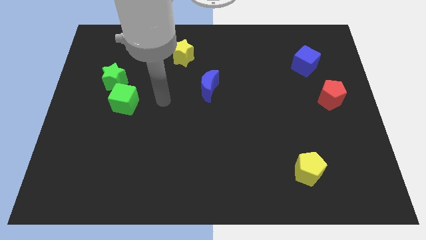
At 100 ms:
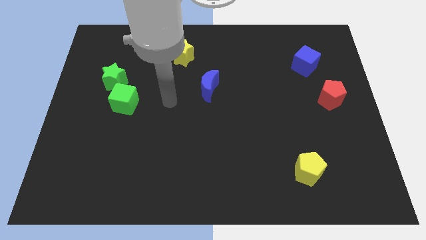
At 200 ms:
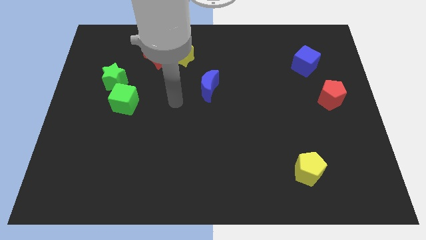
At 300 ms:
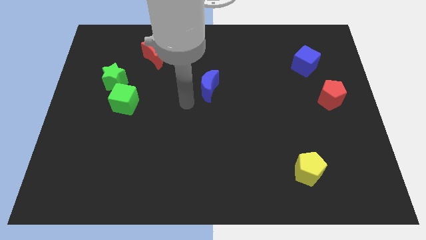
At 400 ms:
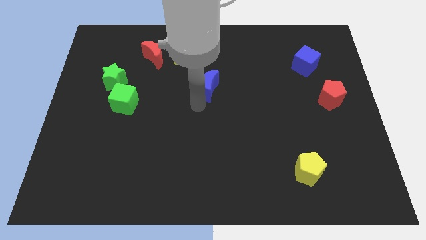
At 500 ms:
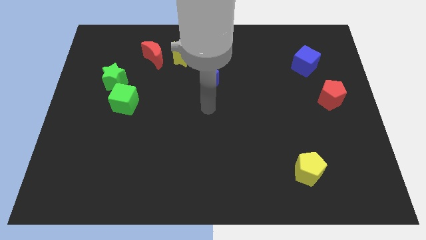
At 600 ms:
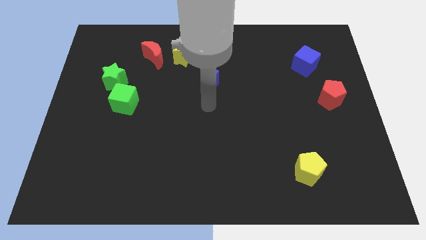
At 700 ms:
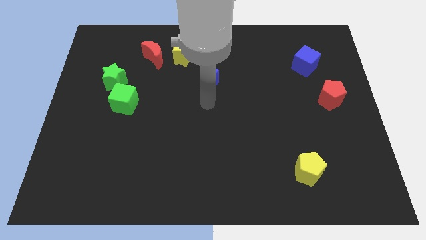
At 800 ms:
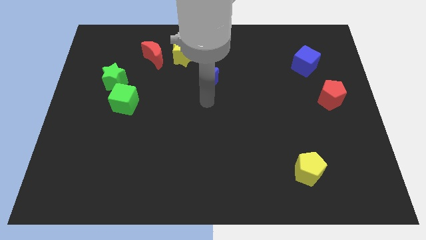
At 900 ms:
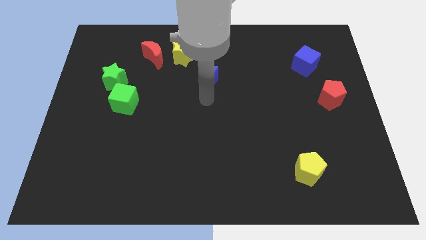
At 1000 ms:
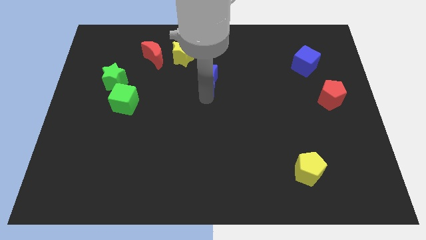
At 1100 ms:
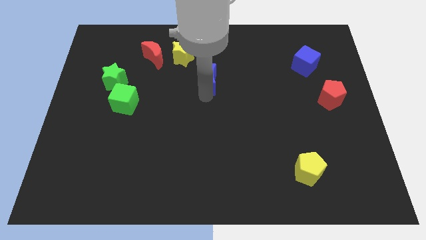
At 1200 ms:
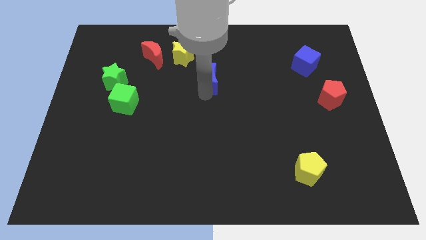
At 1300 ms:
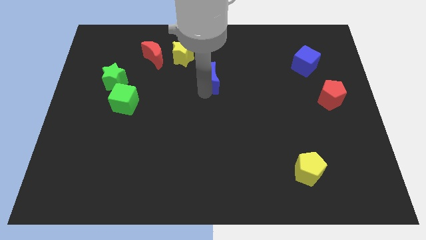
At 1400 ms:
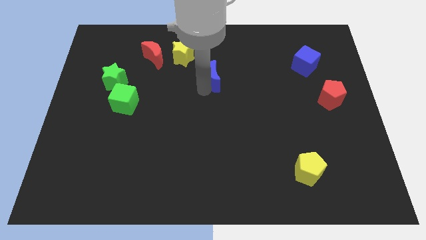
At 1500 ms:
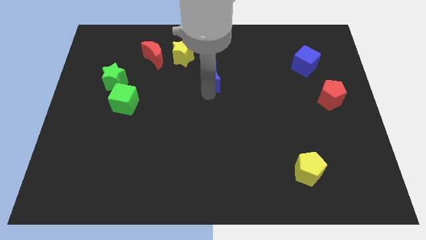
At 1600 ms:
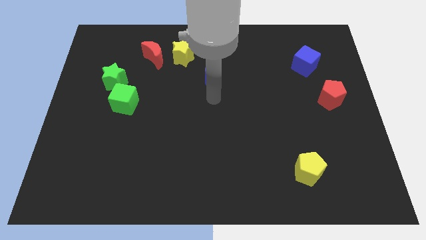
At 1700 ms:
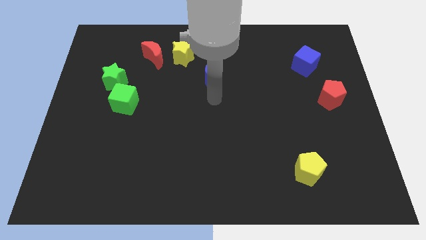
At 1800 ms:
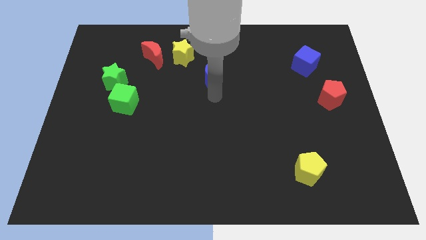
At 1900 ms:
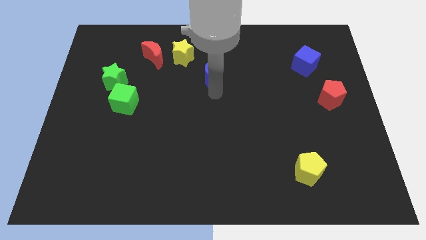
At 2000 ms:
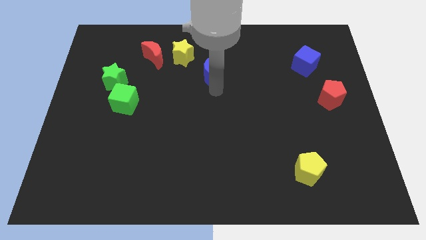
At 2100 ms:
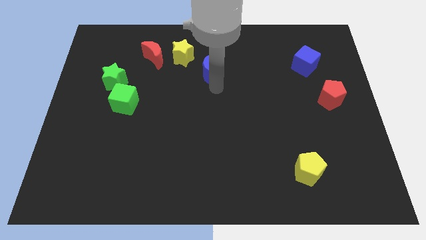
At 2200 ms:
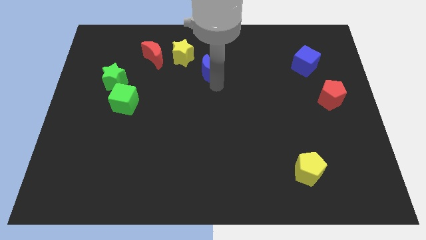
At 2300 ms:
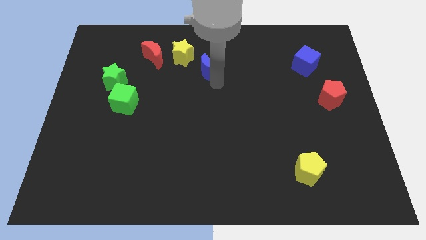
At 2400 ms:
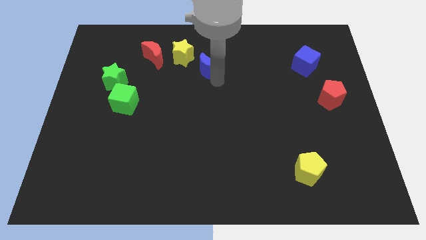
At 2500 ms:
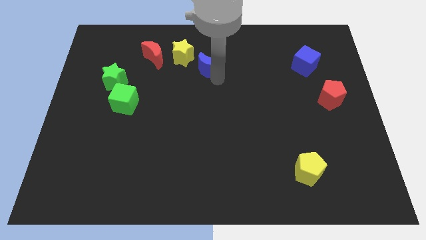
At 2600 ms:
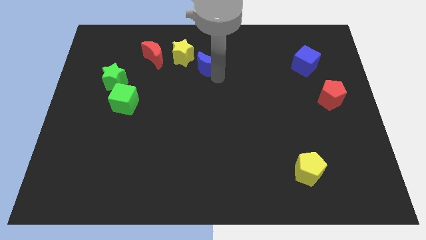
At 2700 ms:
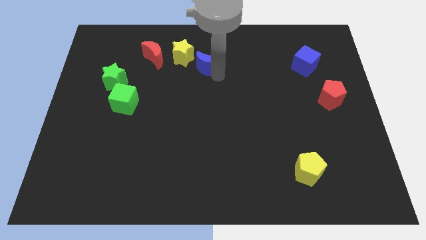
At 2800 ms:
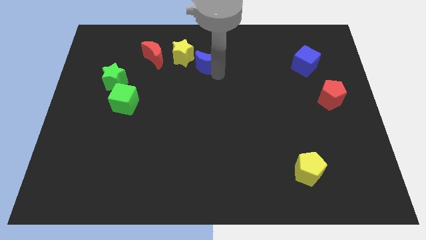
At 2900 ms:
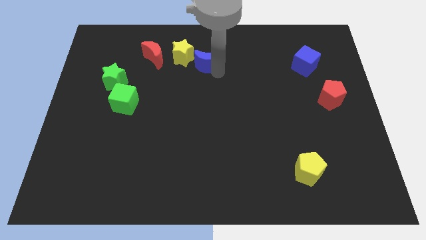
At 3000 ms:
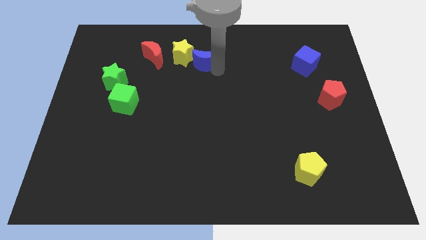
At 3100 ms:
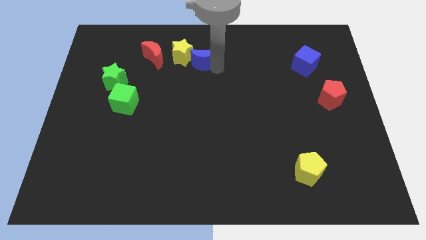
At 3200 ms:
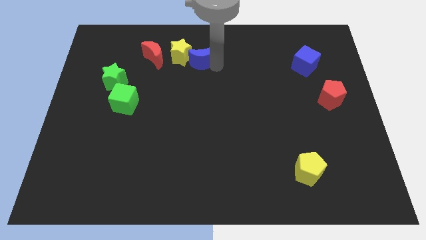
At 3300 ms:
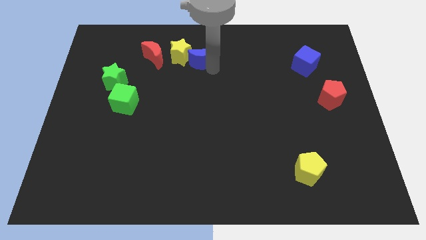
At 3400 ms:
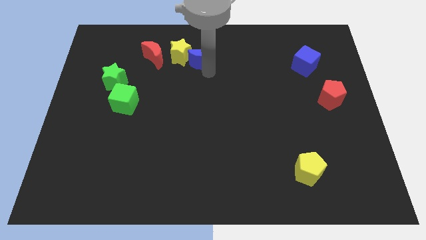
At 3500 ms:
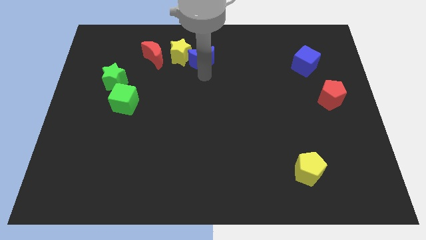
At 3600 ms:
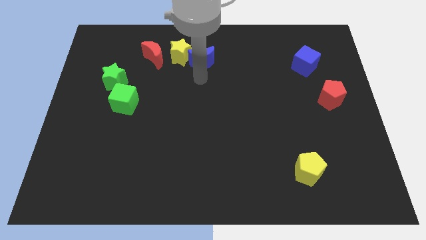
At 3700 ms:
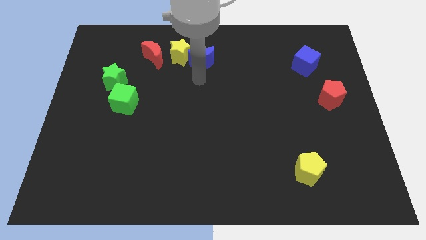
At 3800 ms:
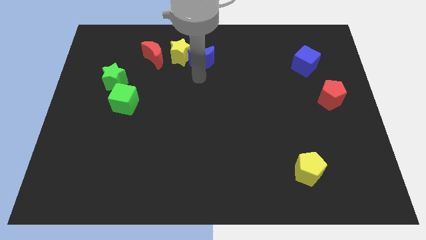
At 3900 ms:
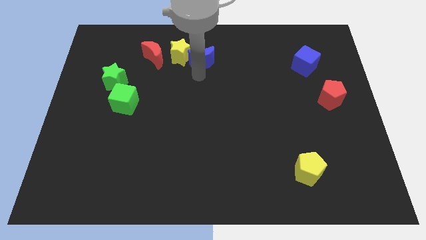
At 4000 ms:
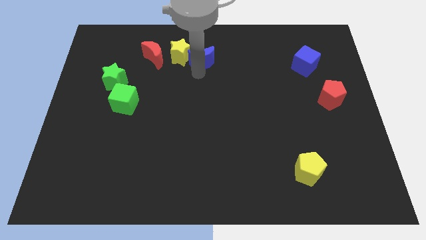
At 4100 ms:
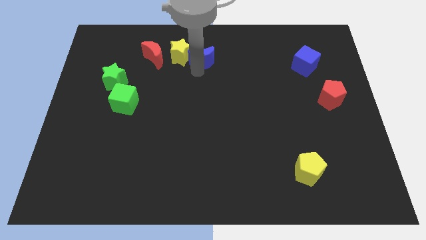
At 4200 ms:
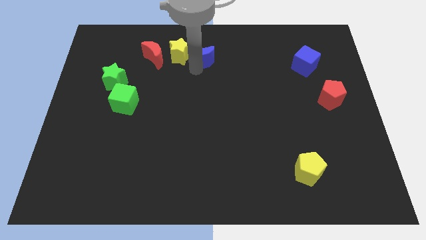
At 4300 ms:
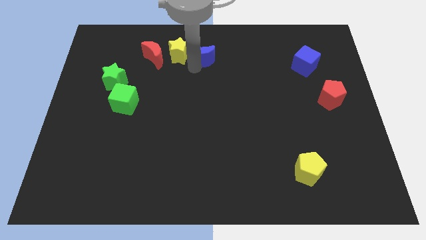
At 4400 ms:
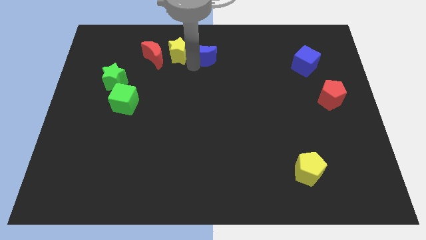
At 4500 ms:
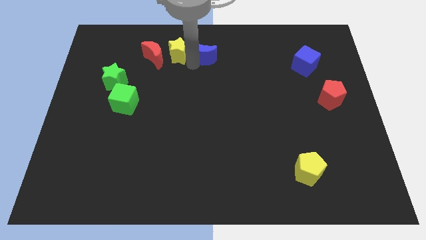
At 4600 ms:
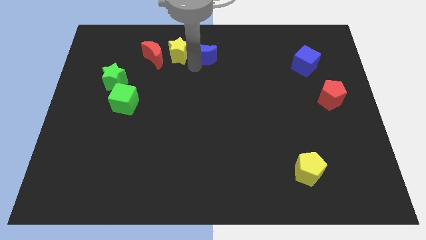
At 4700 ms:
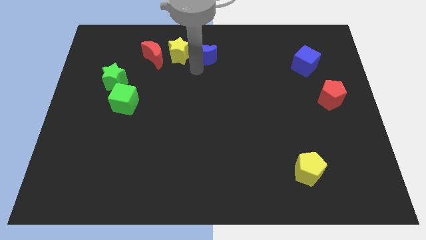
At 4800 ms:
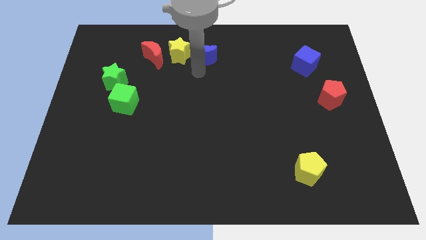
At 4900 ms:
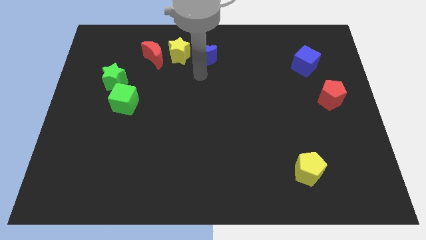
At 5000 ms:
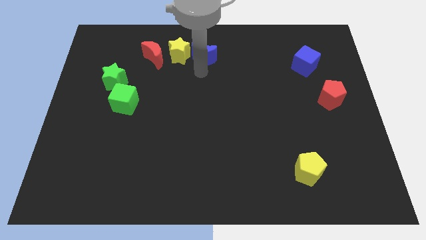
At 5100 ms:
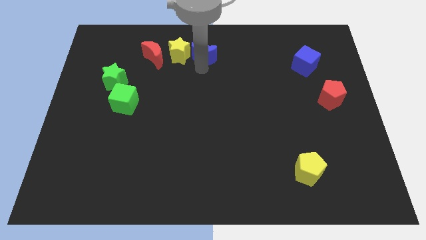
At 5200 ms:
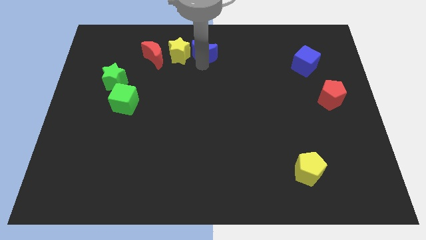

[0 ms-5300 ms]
move the blue moon to the top

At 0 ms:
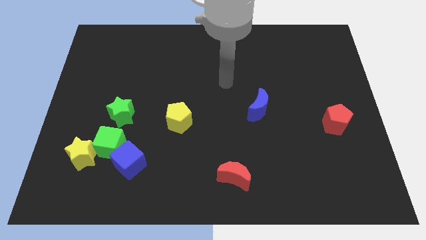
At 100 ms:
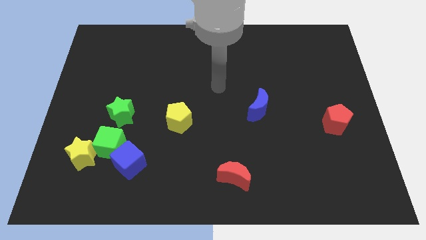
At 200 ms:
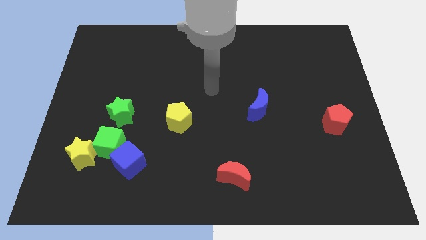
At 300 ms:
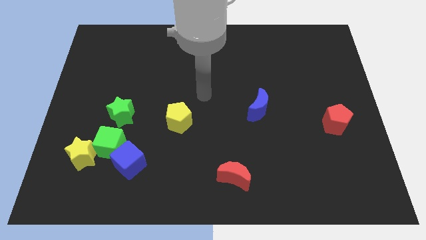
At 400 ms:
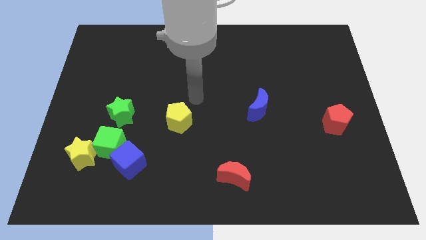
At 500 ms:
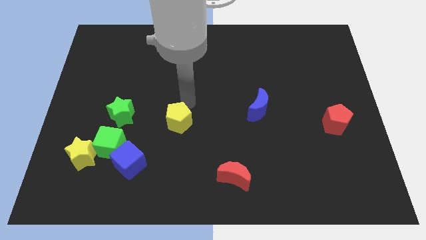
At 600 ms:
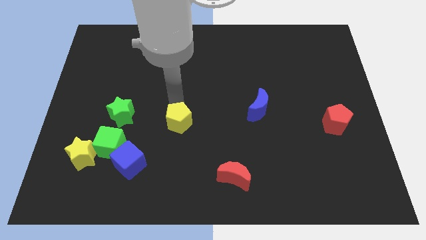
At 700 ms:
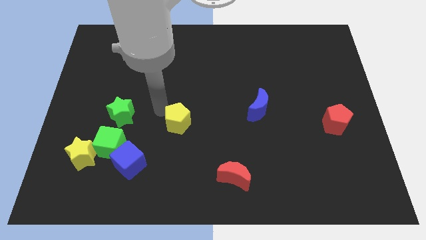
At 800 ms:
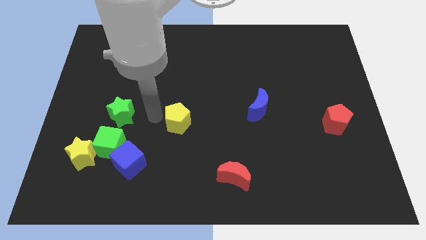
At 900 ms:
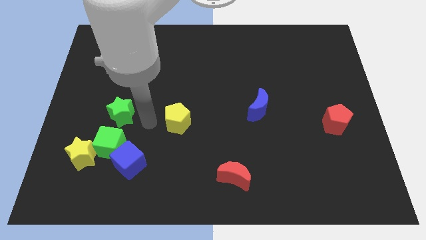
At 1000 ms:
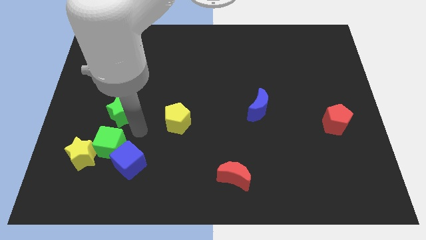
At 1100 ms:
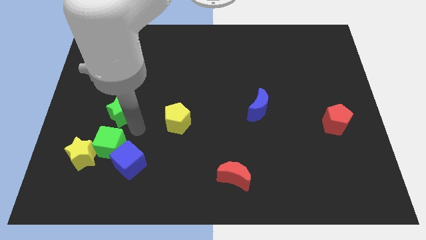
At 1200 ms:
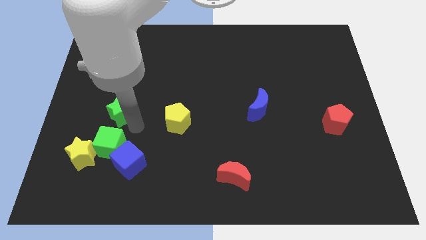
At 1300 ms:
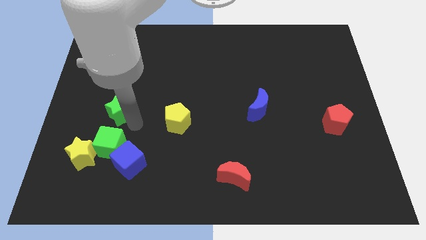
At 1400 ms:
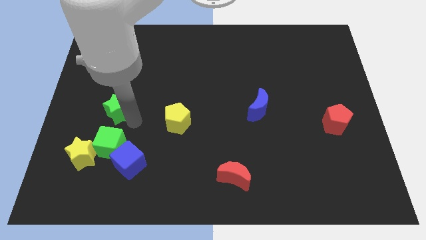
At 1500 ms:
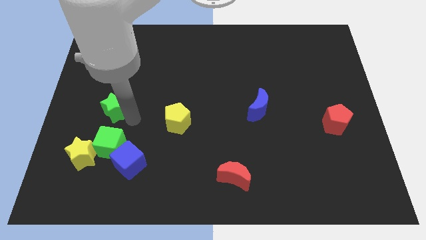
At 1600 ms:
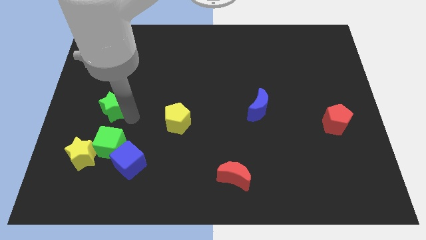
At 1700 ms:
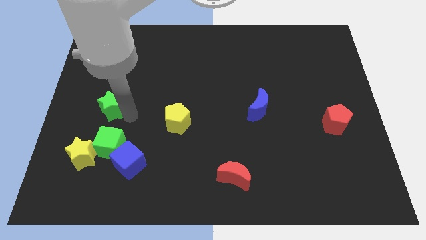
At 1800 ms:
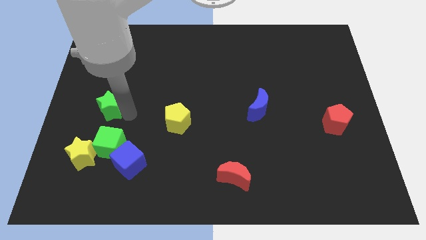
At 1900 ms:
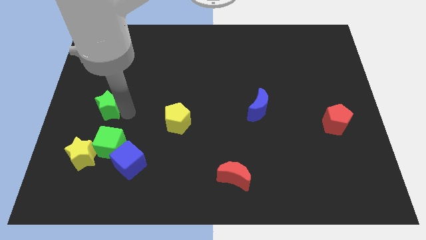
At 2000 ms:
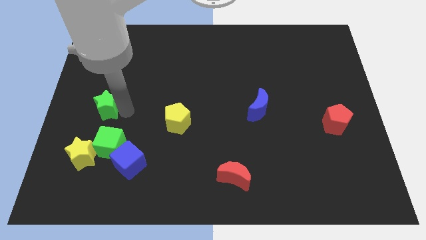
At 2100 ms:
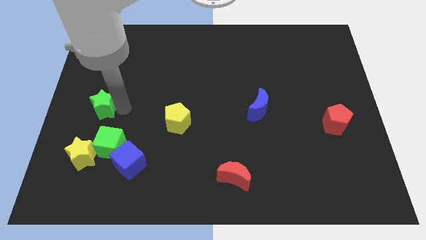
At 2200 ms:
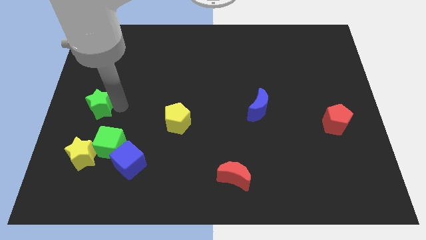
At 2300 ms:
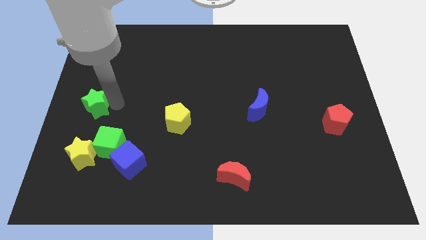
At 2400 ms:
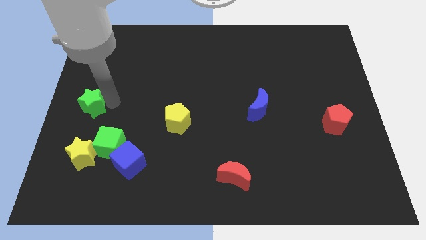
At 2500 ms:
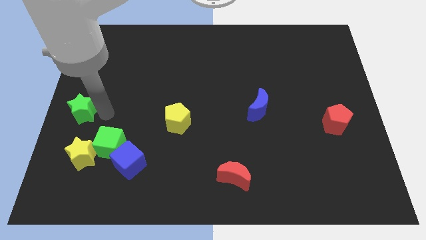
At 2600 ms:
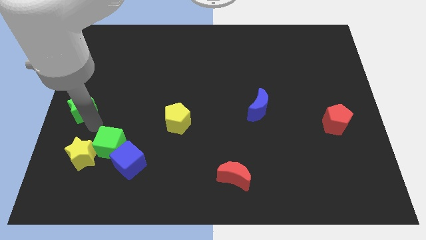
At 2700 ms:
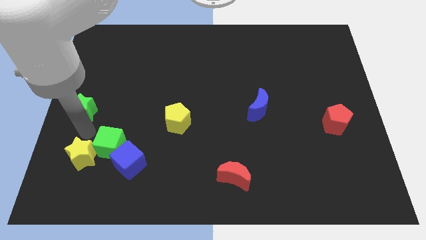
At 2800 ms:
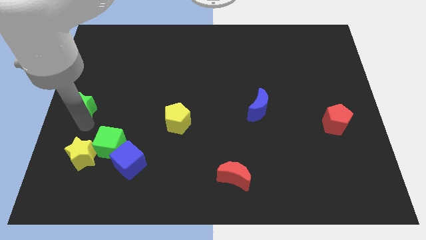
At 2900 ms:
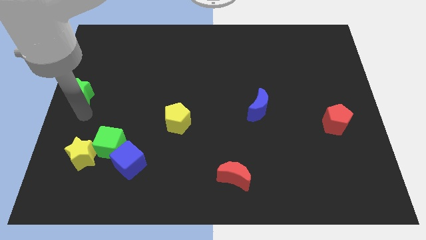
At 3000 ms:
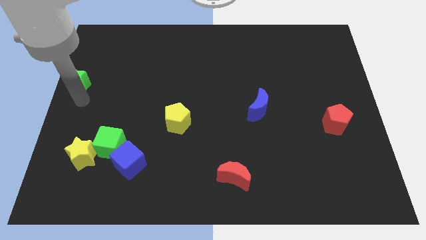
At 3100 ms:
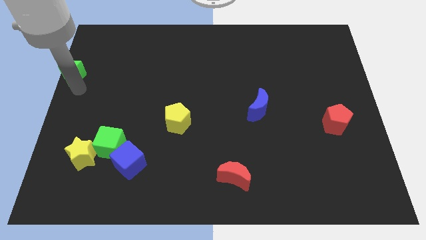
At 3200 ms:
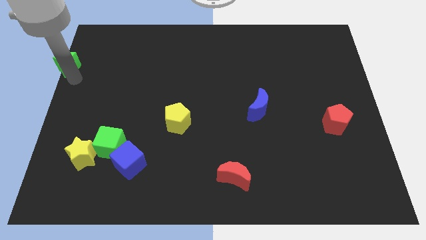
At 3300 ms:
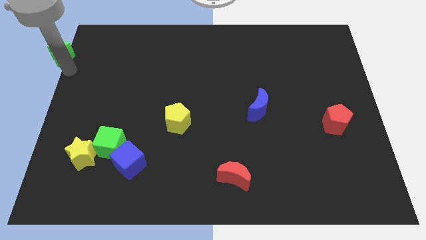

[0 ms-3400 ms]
move the green star to the upper left corner
